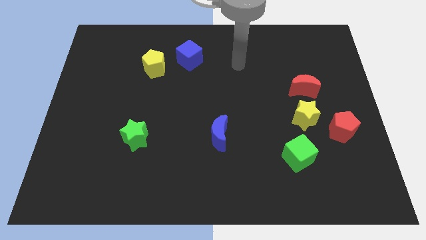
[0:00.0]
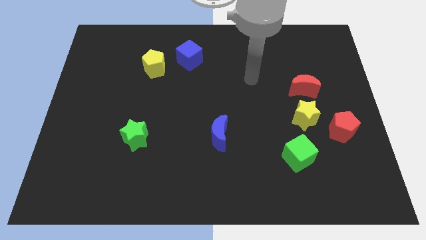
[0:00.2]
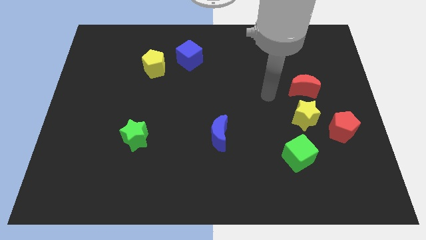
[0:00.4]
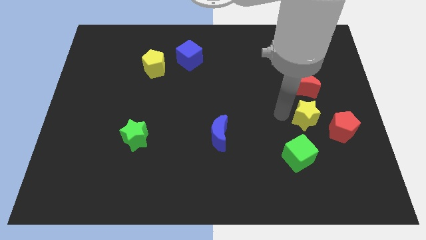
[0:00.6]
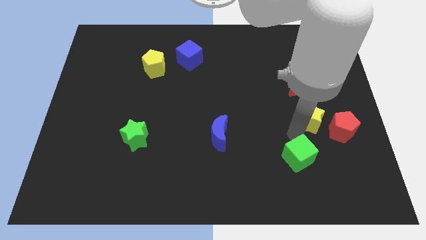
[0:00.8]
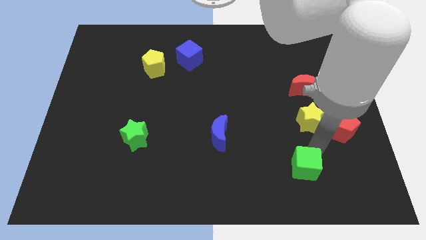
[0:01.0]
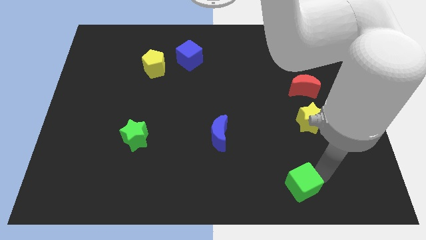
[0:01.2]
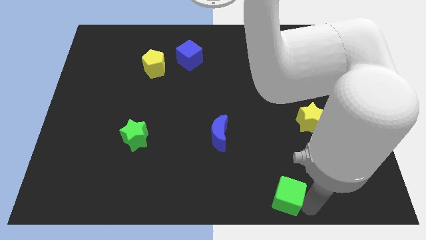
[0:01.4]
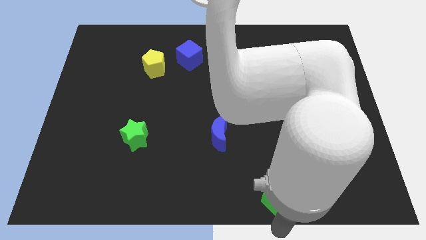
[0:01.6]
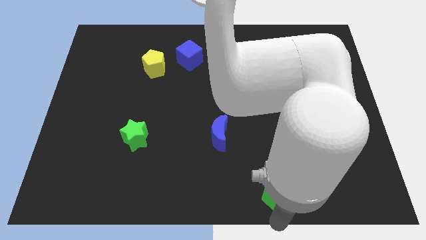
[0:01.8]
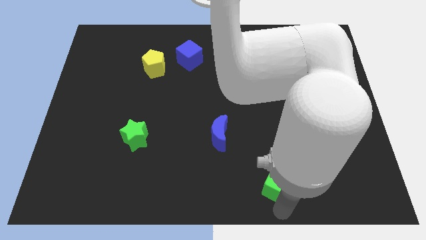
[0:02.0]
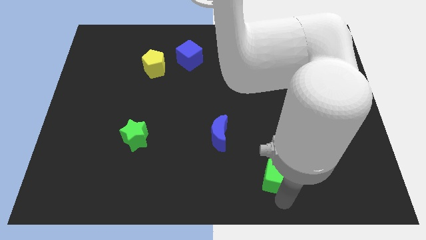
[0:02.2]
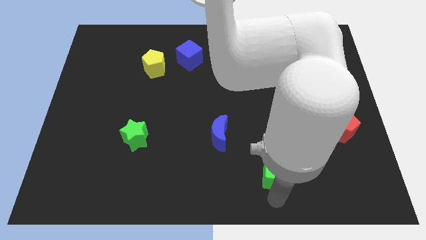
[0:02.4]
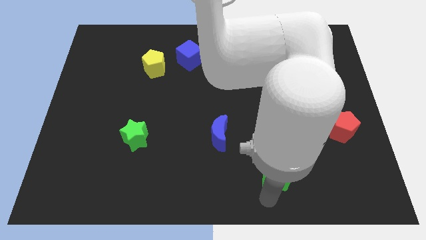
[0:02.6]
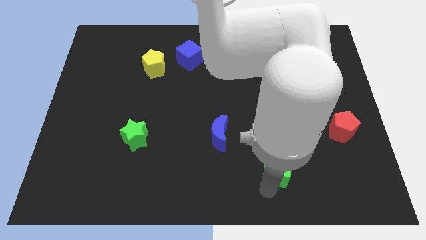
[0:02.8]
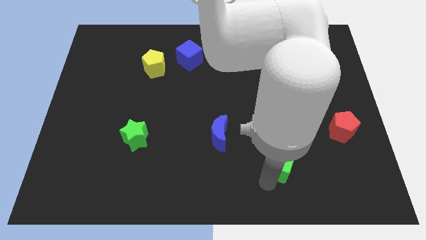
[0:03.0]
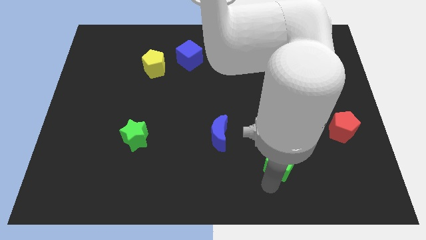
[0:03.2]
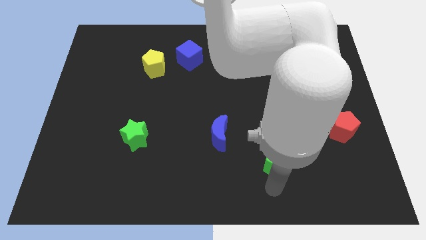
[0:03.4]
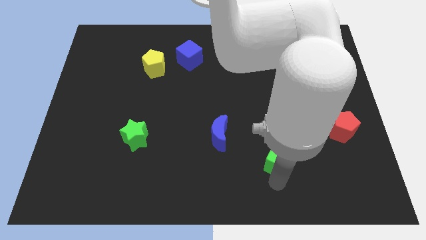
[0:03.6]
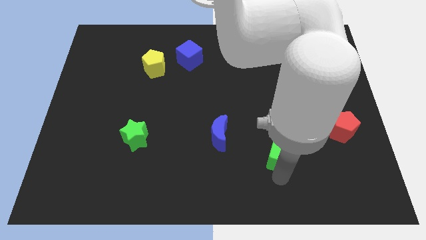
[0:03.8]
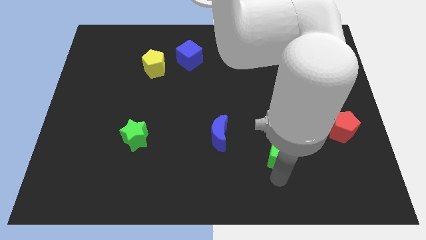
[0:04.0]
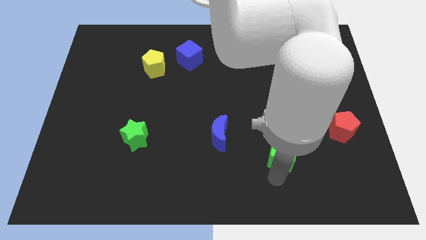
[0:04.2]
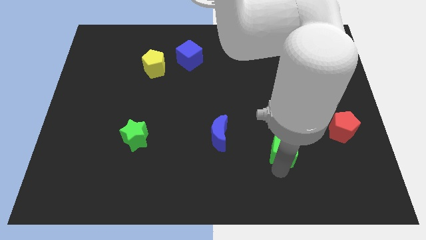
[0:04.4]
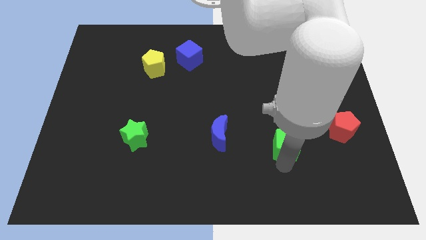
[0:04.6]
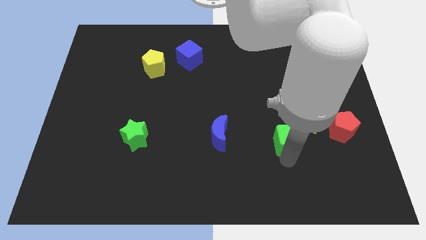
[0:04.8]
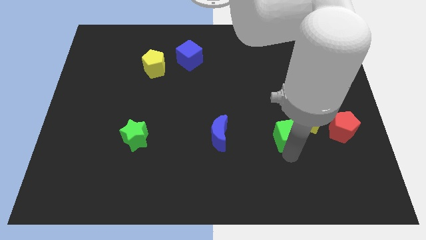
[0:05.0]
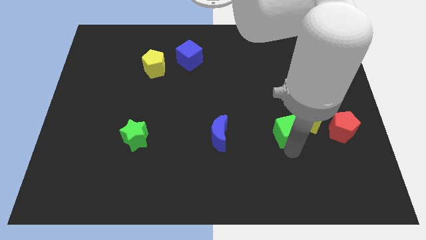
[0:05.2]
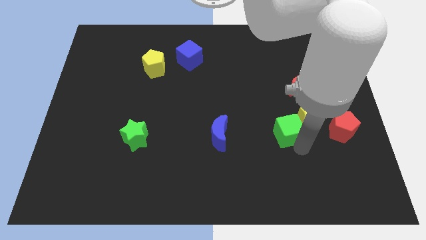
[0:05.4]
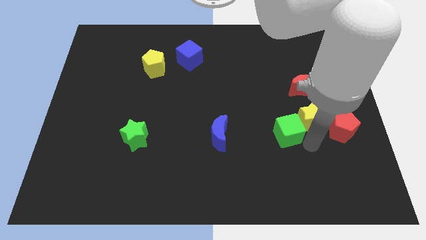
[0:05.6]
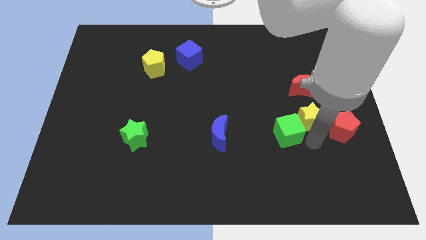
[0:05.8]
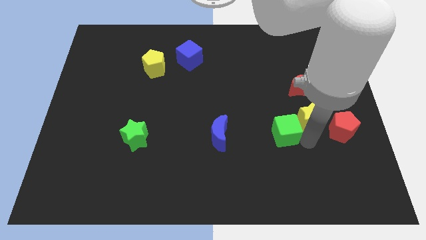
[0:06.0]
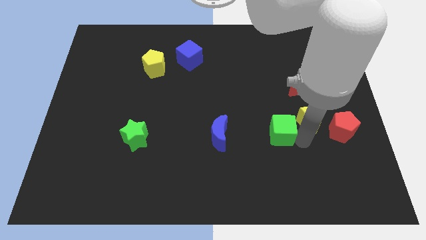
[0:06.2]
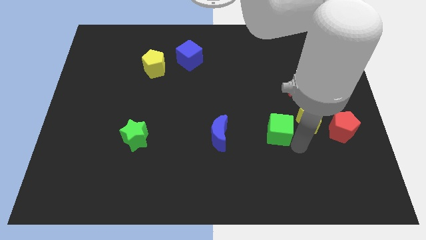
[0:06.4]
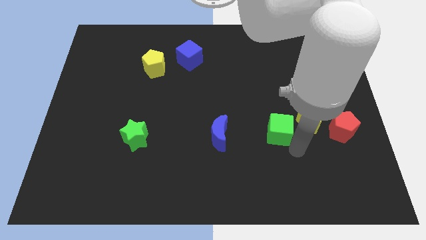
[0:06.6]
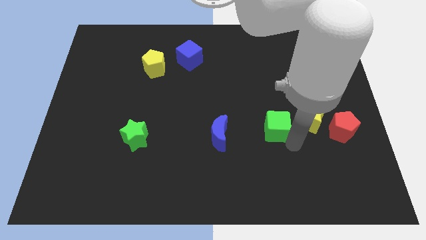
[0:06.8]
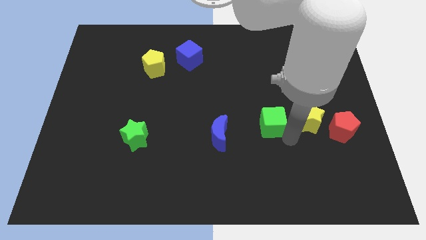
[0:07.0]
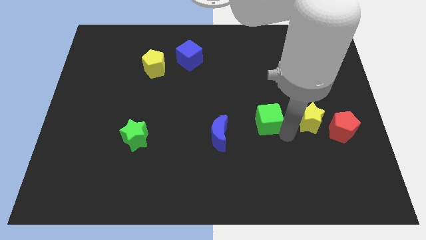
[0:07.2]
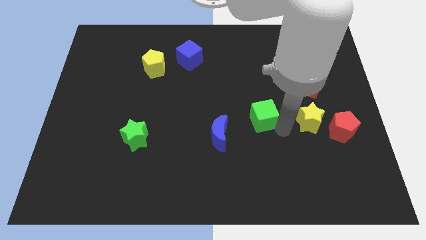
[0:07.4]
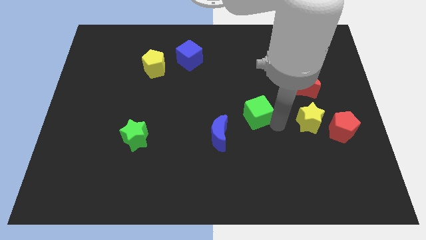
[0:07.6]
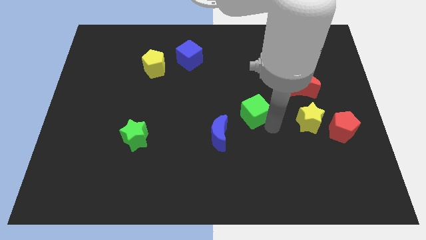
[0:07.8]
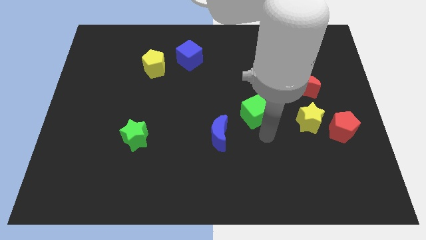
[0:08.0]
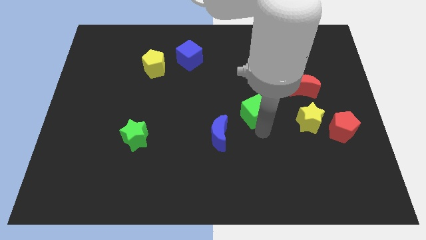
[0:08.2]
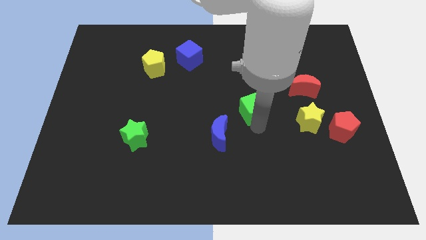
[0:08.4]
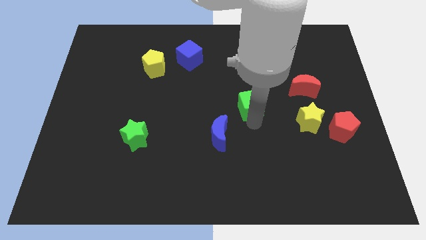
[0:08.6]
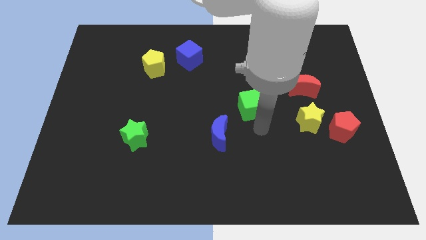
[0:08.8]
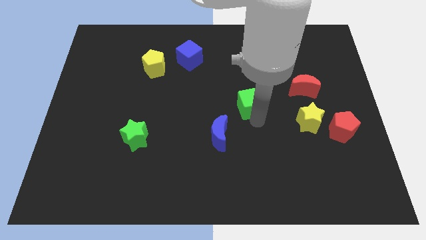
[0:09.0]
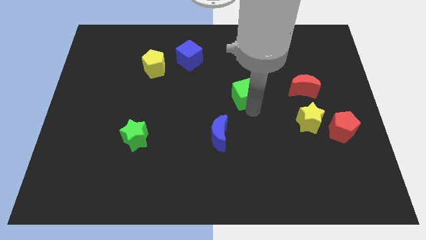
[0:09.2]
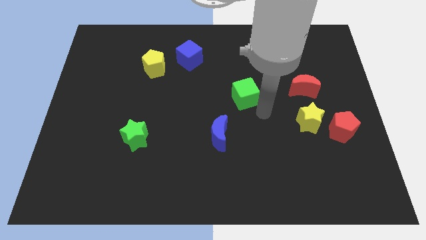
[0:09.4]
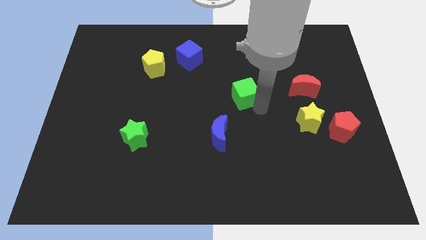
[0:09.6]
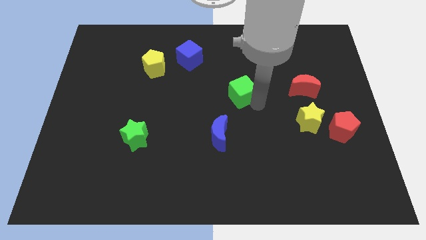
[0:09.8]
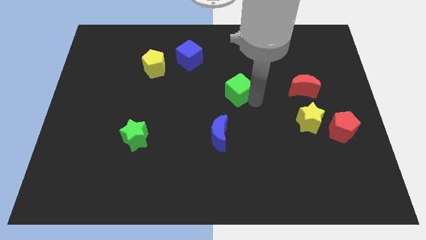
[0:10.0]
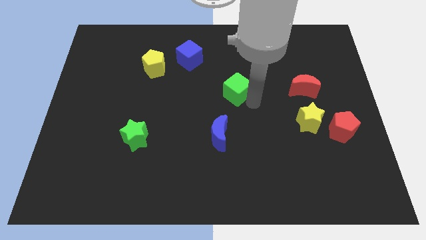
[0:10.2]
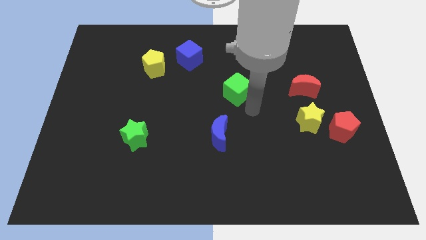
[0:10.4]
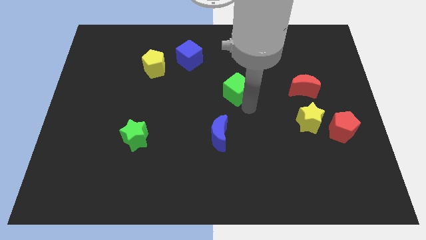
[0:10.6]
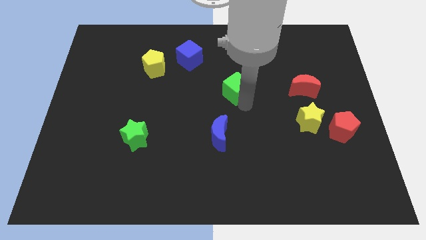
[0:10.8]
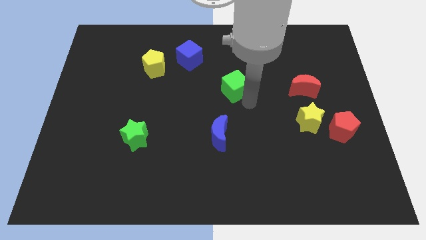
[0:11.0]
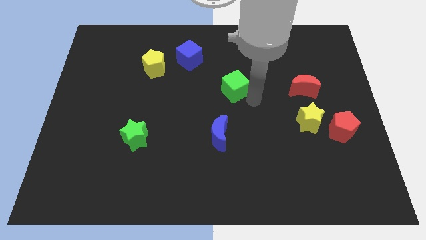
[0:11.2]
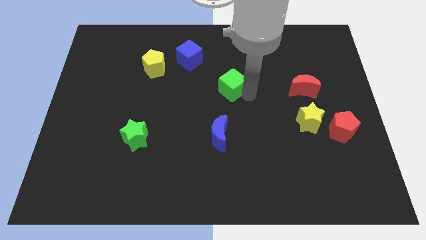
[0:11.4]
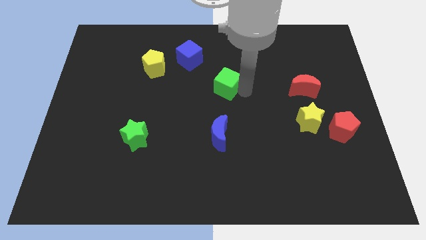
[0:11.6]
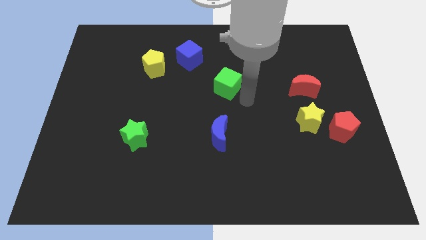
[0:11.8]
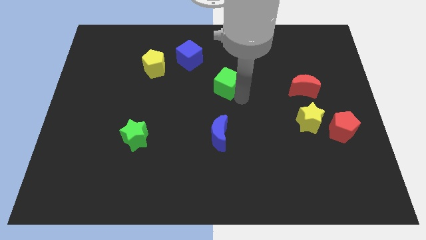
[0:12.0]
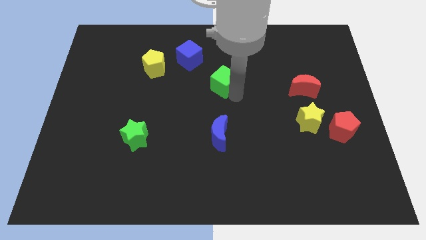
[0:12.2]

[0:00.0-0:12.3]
put the green cube to the bottom right of the blue cube

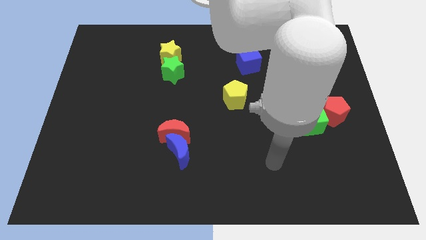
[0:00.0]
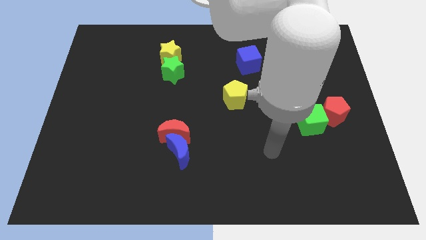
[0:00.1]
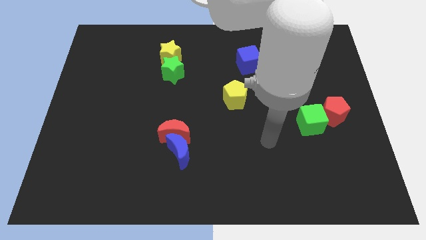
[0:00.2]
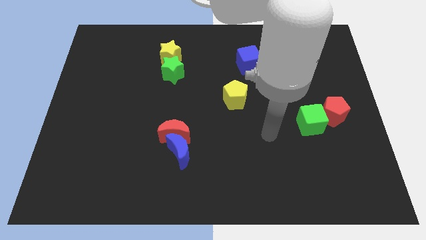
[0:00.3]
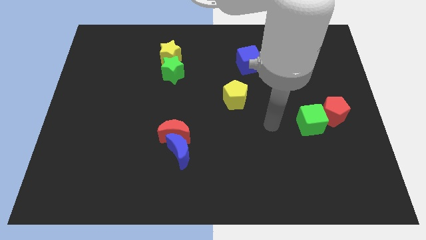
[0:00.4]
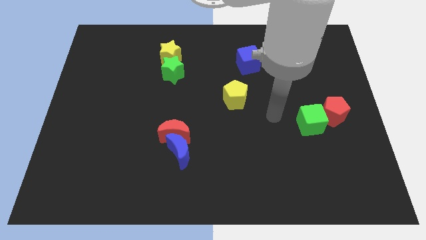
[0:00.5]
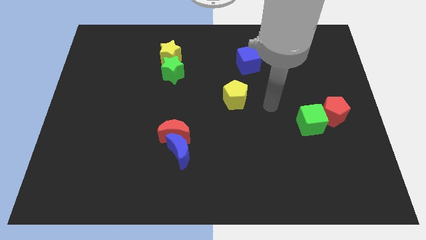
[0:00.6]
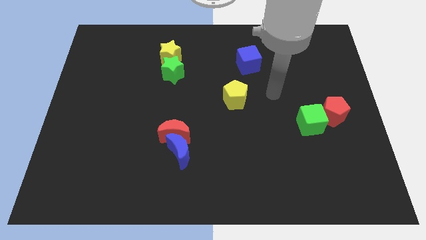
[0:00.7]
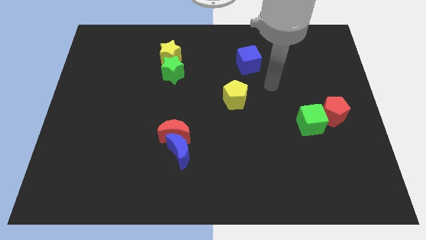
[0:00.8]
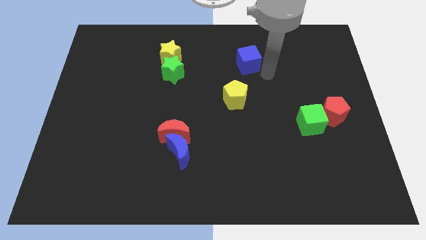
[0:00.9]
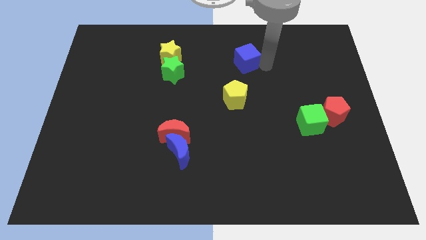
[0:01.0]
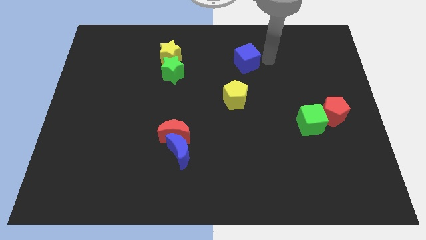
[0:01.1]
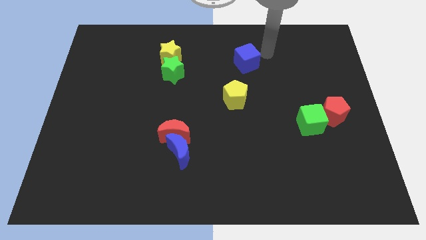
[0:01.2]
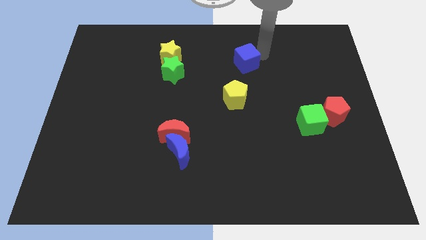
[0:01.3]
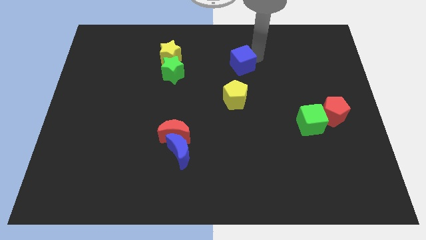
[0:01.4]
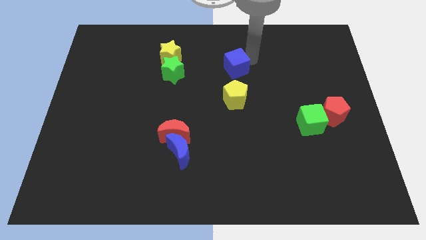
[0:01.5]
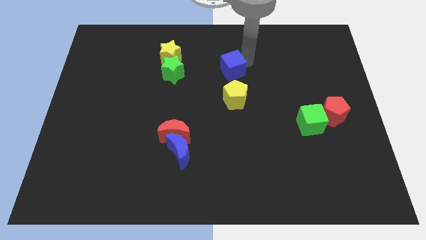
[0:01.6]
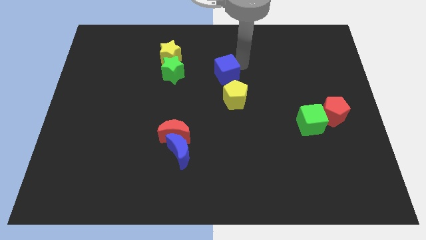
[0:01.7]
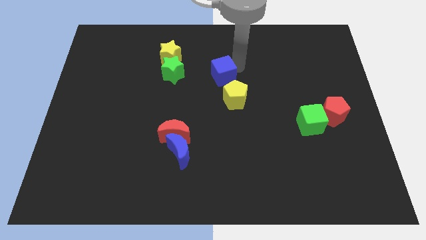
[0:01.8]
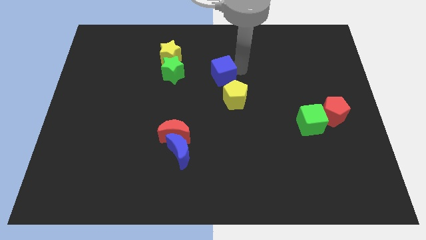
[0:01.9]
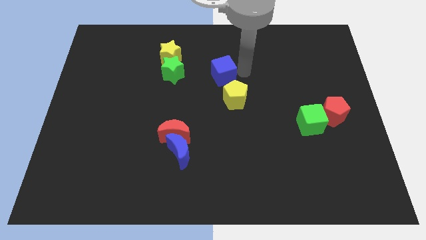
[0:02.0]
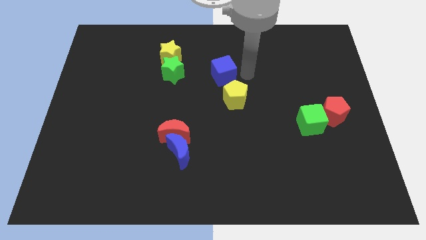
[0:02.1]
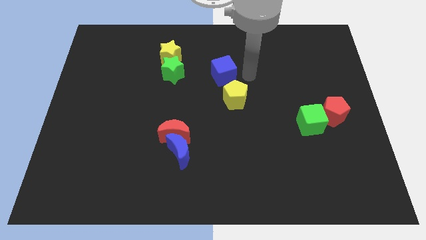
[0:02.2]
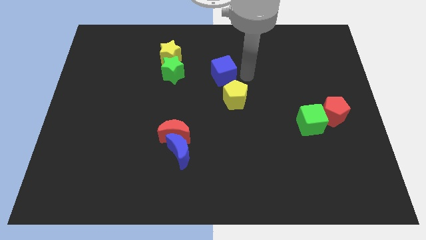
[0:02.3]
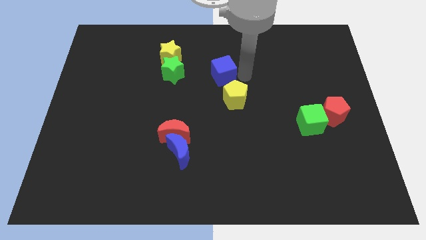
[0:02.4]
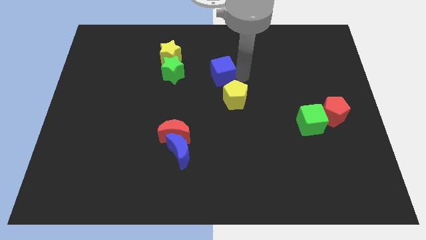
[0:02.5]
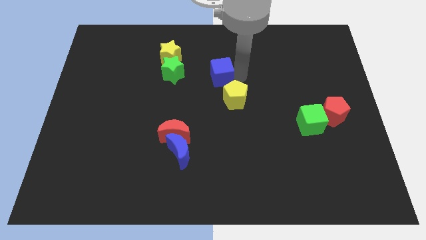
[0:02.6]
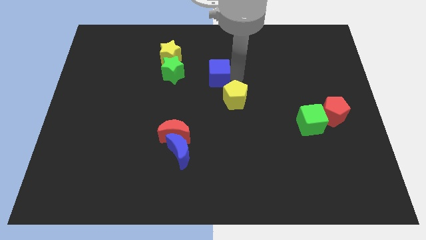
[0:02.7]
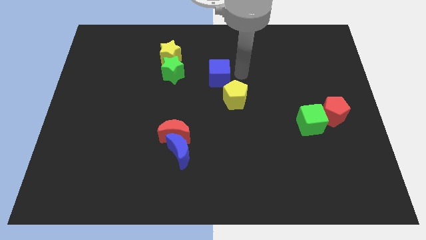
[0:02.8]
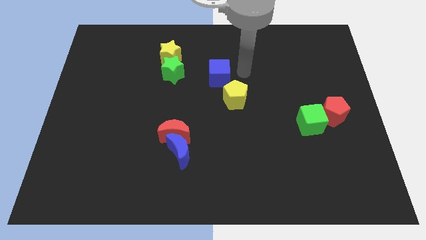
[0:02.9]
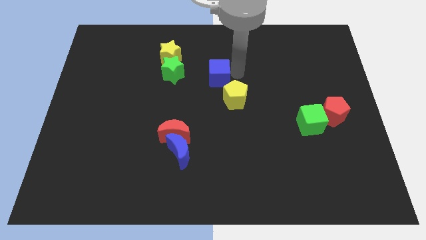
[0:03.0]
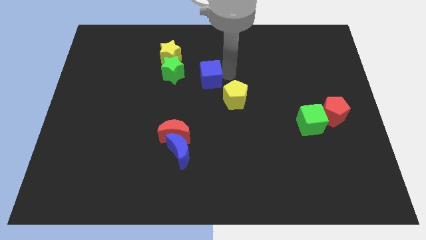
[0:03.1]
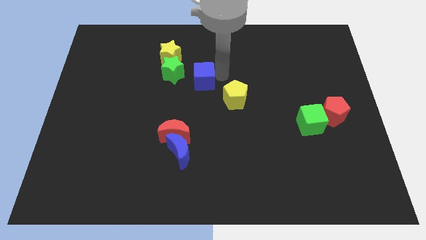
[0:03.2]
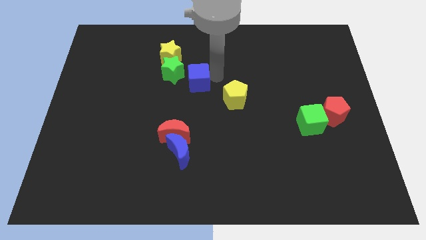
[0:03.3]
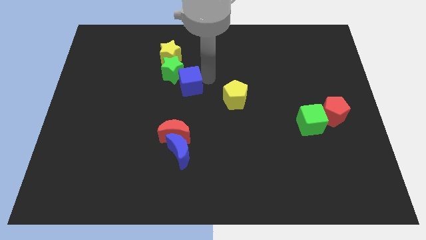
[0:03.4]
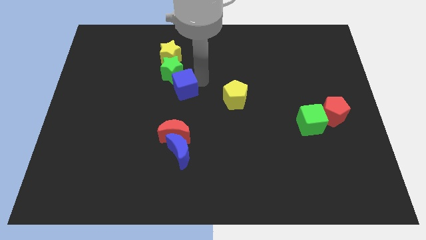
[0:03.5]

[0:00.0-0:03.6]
slide the blue cube below the yellow star
